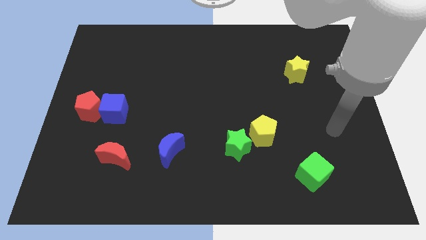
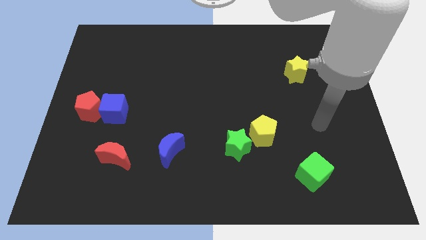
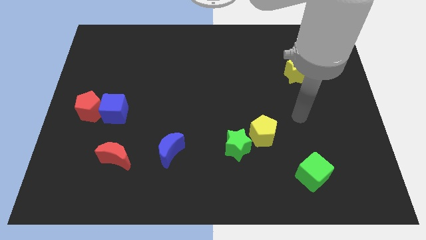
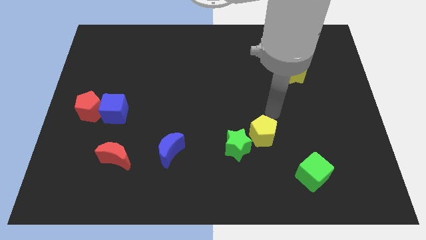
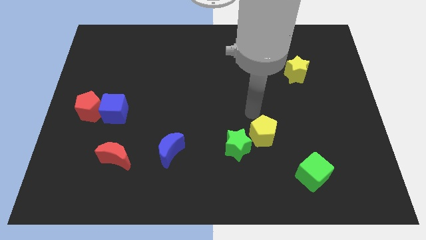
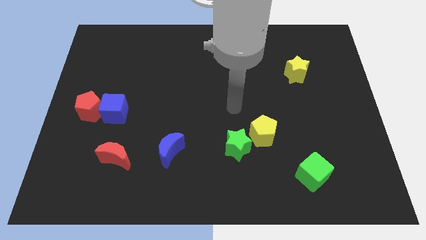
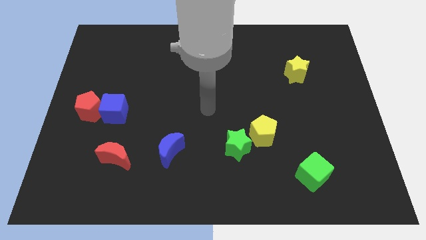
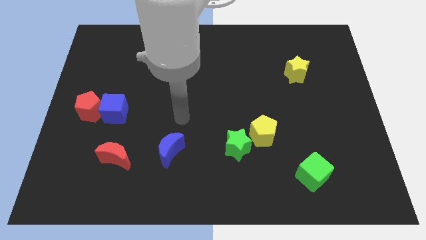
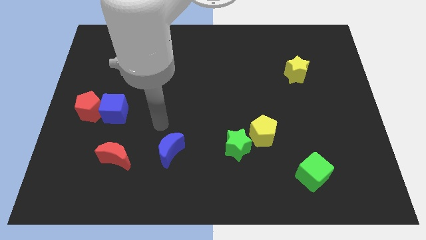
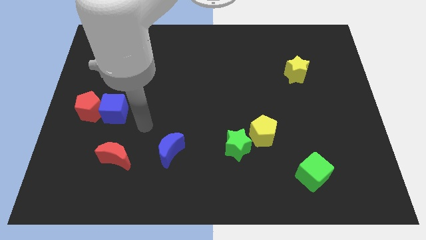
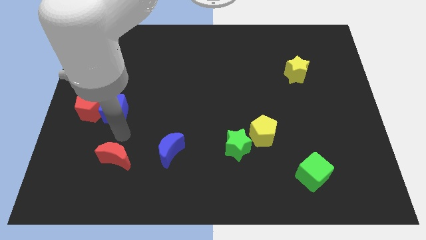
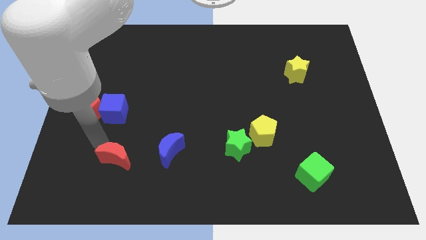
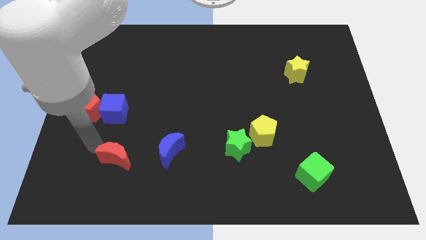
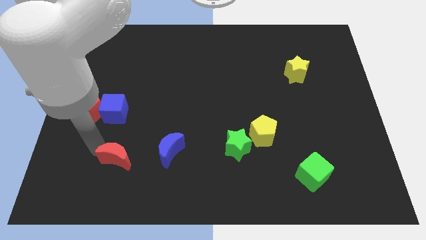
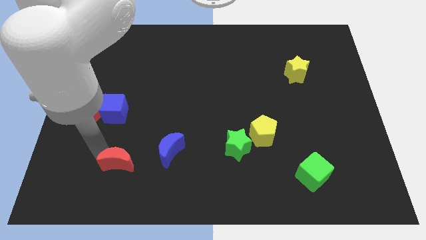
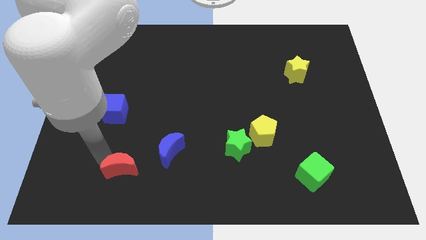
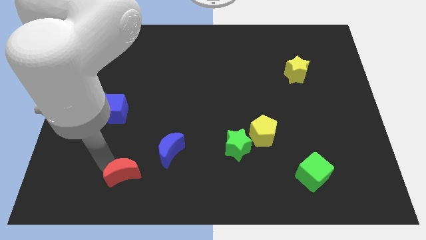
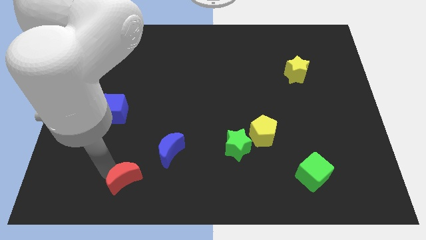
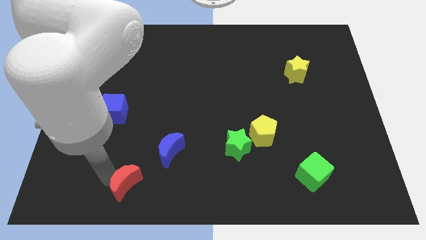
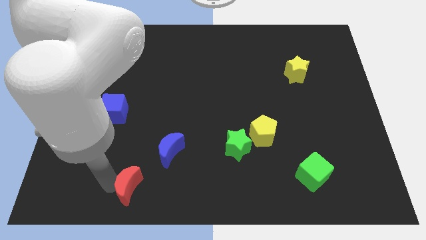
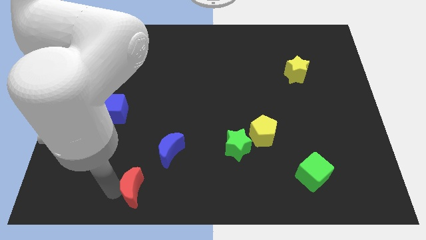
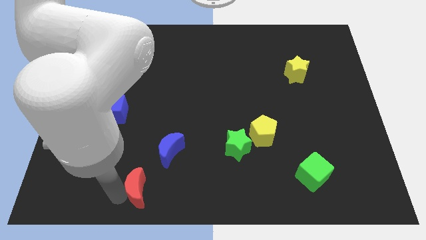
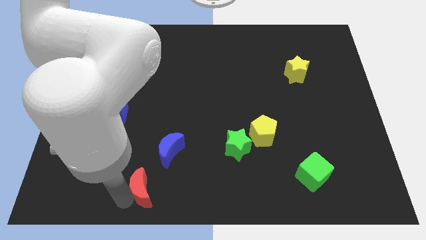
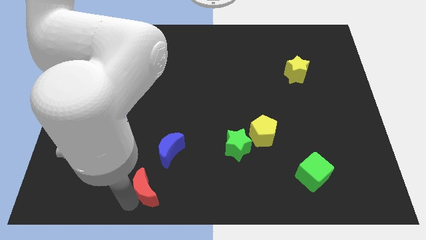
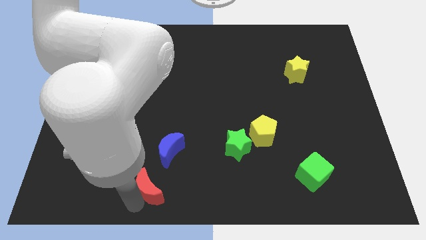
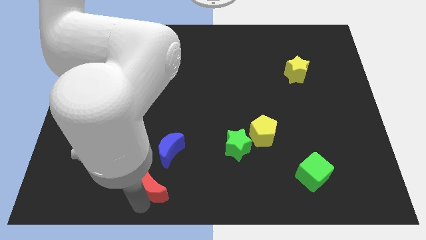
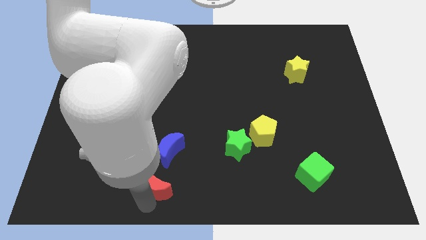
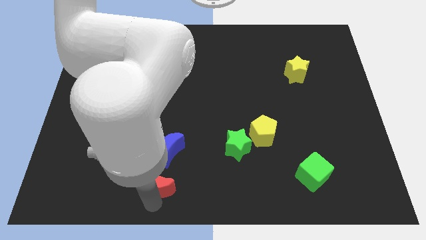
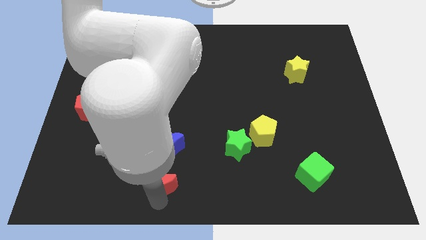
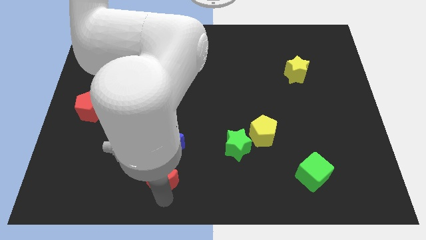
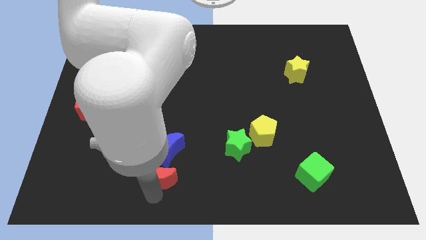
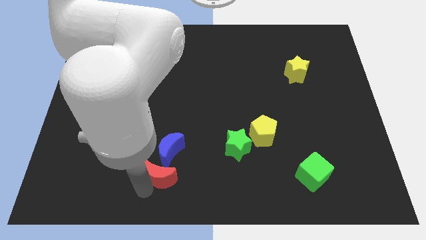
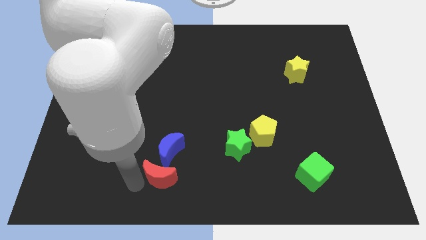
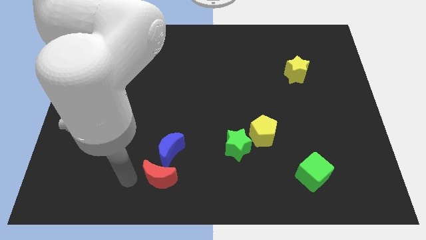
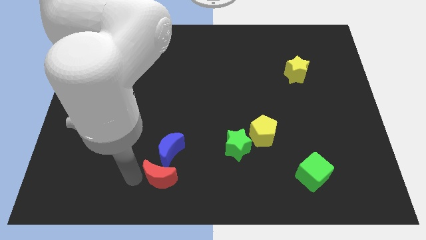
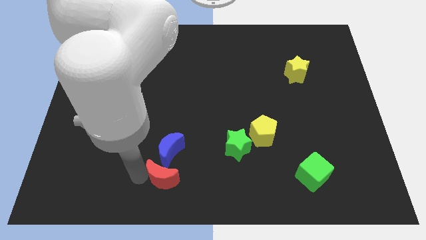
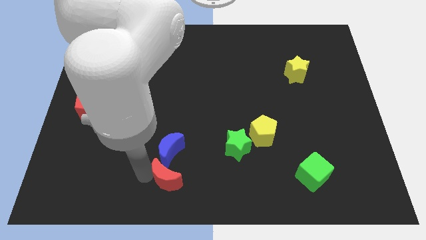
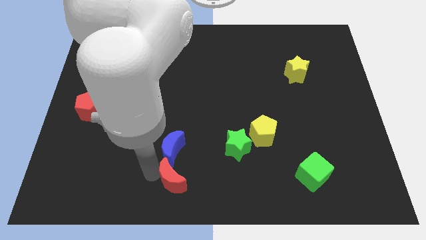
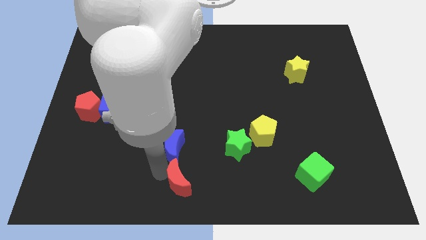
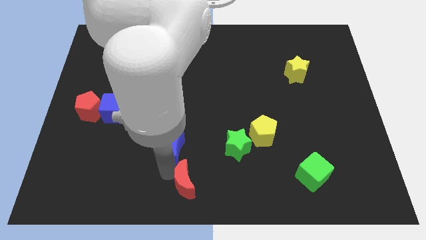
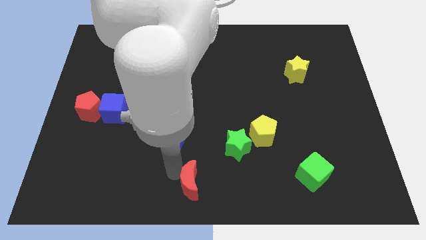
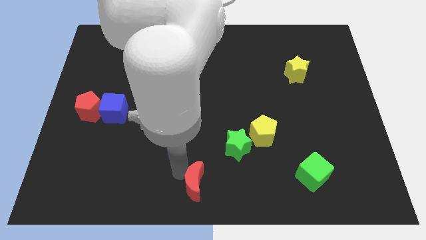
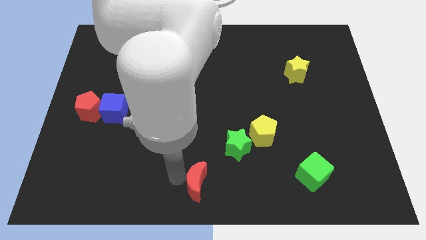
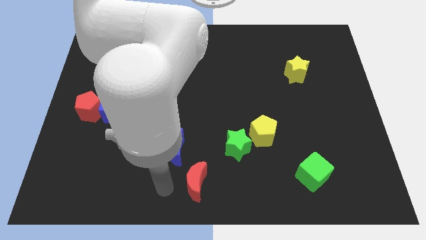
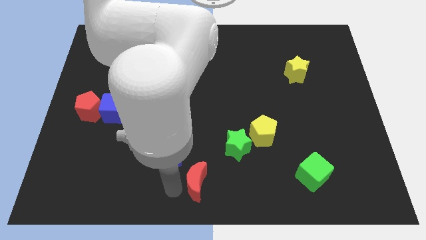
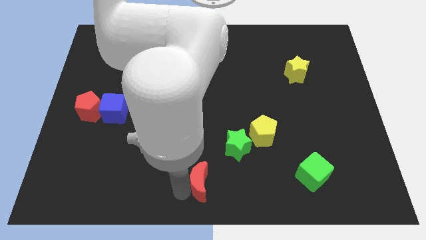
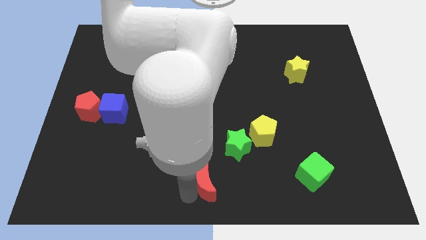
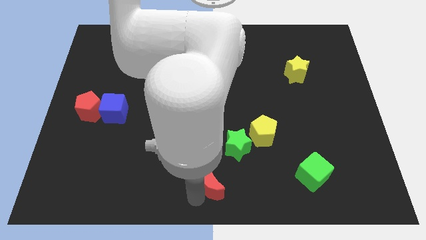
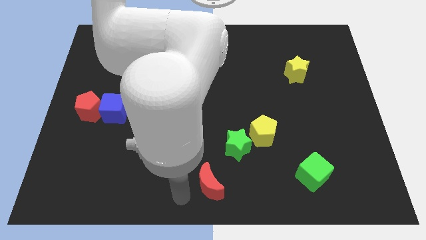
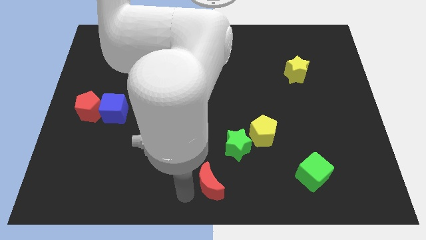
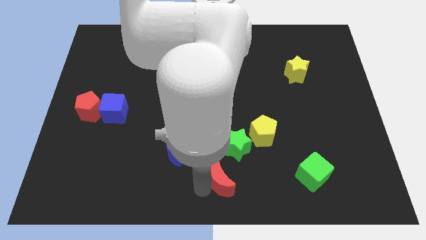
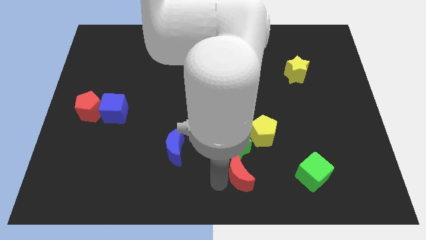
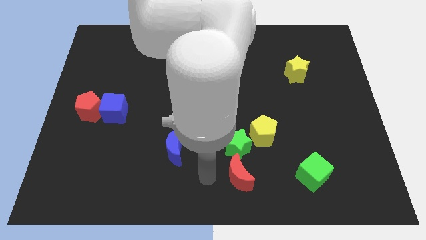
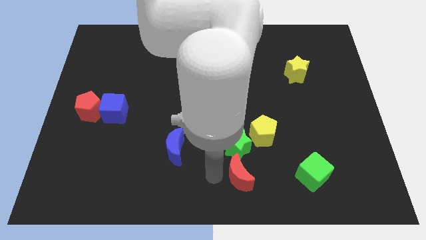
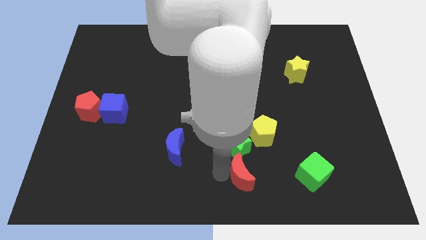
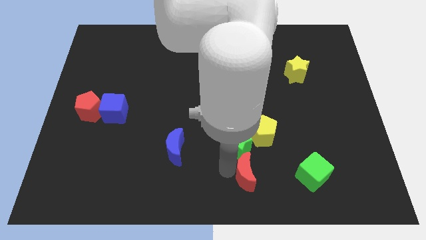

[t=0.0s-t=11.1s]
slide the red moon to the bottom side of the yellow pentagon

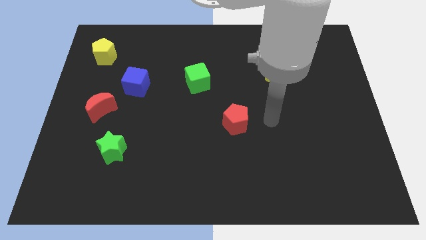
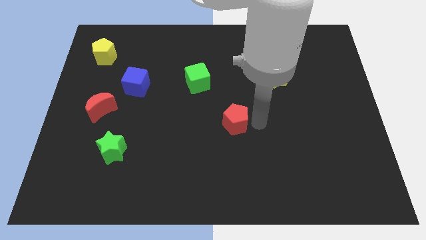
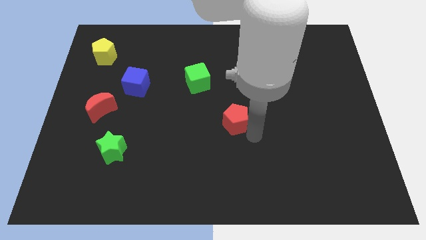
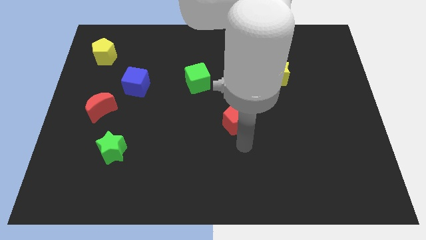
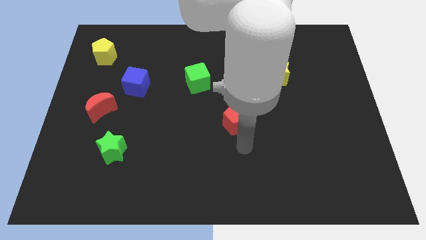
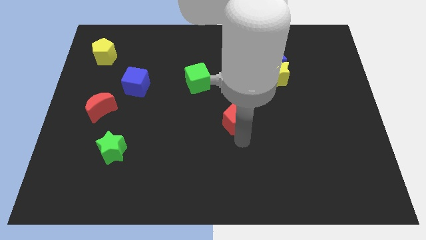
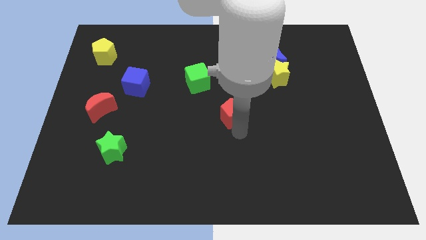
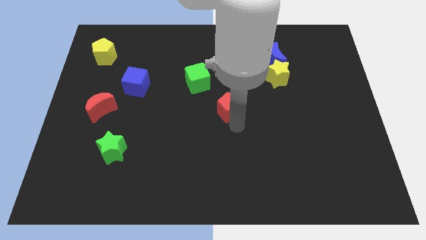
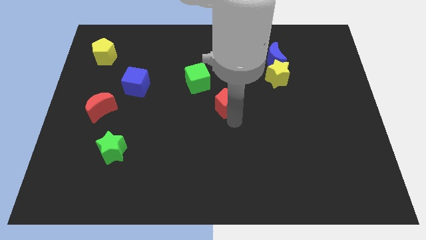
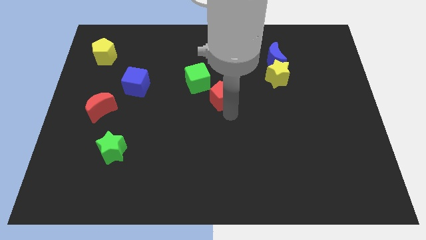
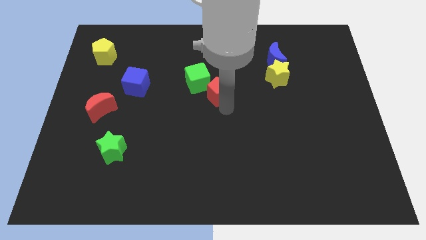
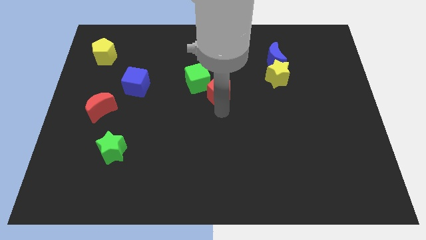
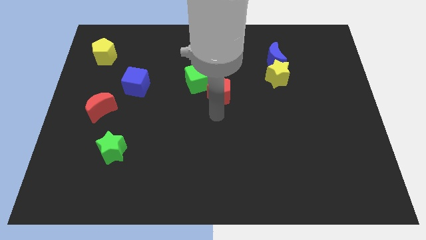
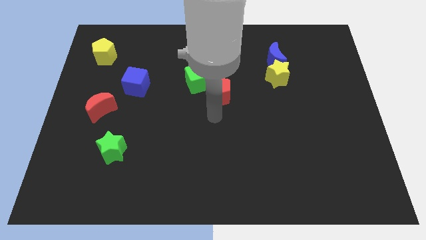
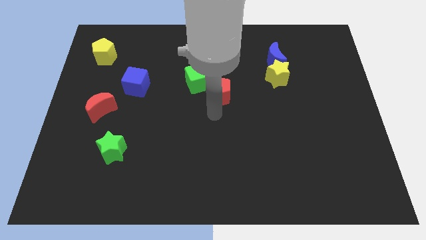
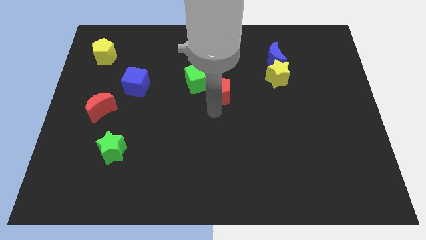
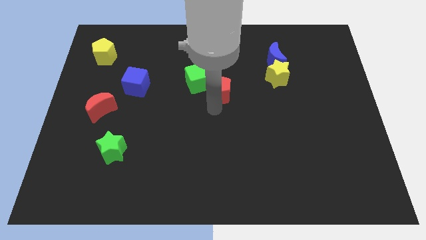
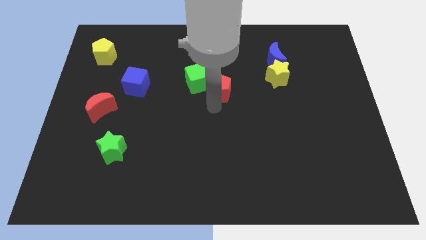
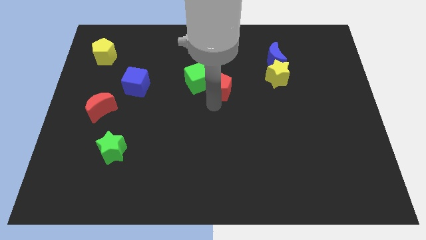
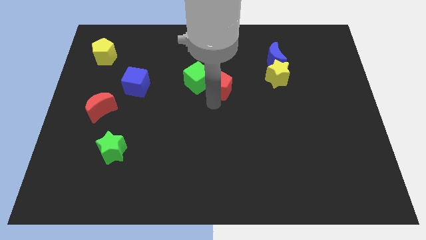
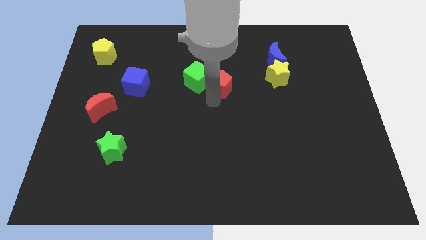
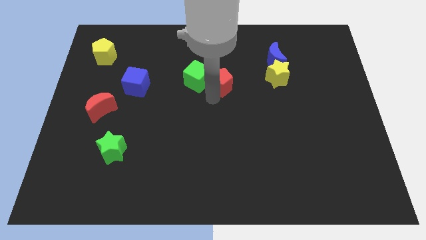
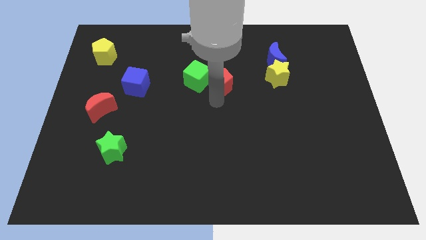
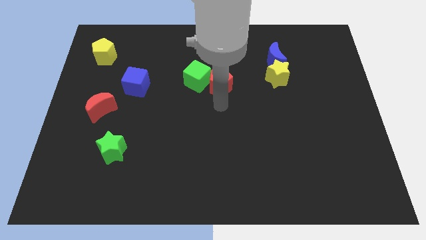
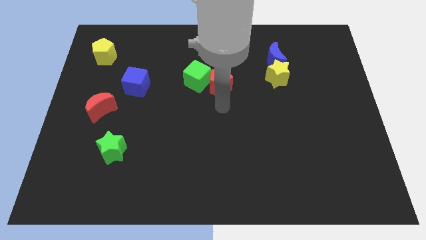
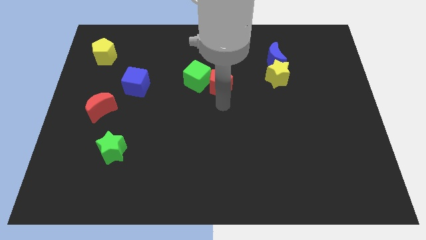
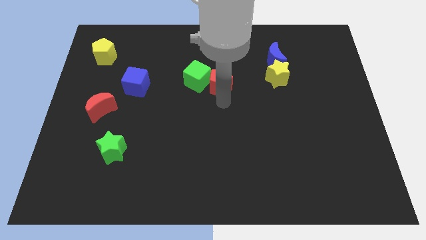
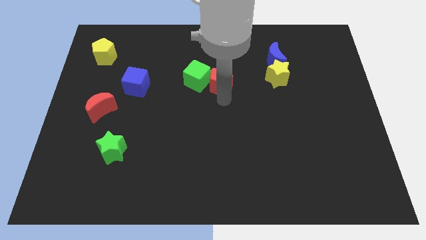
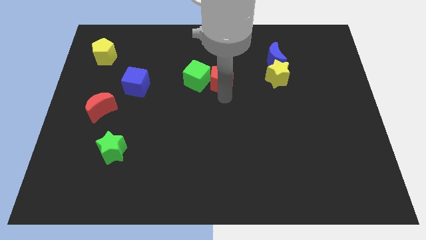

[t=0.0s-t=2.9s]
slide the red pentagon diagonally up and to the right of the green cube
